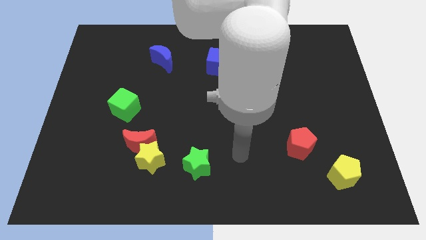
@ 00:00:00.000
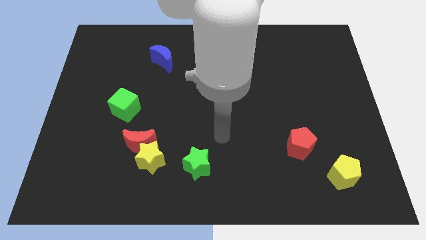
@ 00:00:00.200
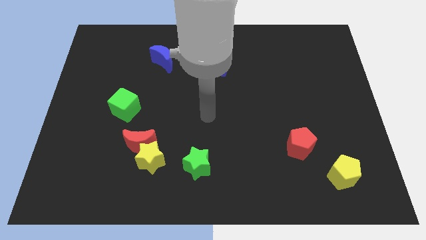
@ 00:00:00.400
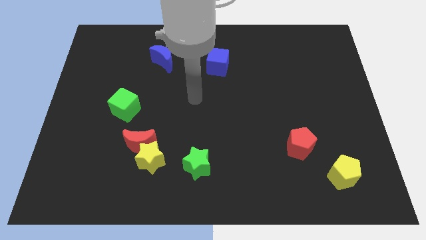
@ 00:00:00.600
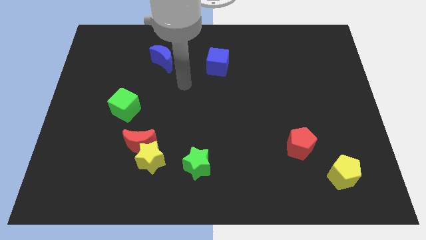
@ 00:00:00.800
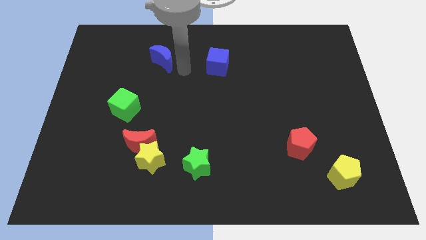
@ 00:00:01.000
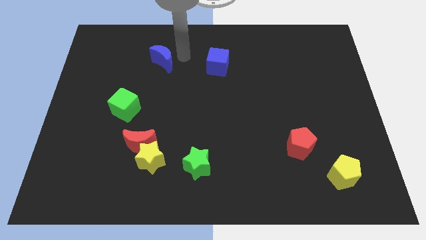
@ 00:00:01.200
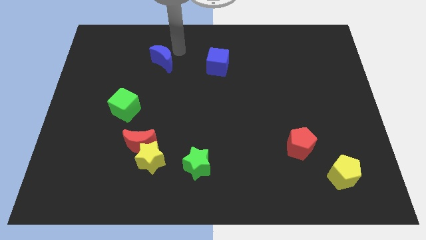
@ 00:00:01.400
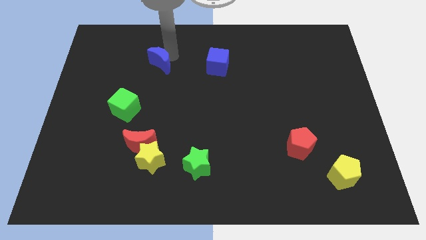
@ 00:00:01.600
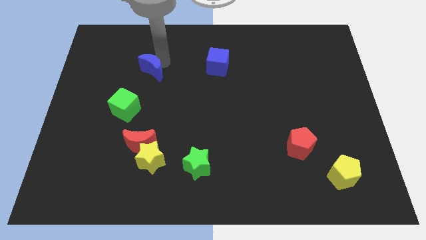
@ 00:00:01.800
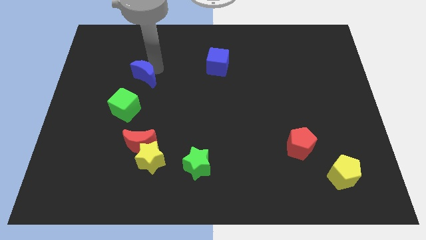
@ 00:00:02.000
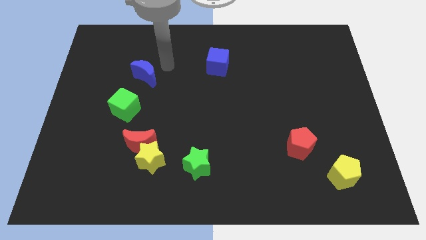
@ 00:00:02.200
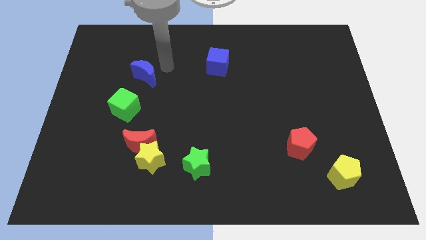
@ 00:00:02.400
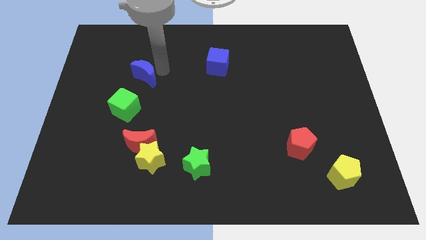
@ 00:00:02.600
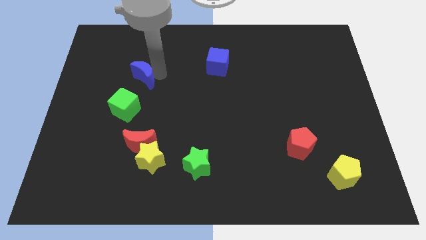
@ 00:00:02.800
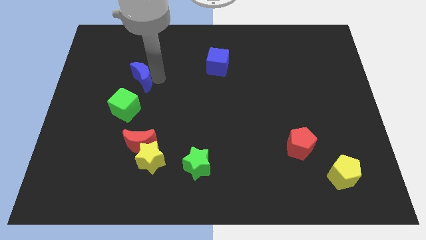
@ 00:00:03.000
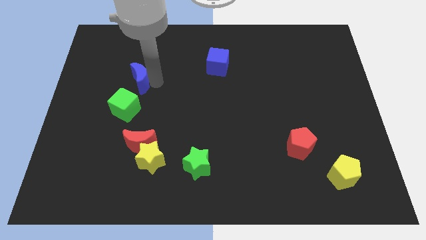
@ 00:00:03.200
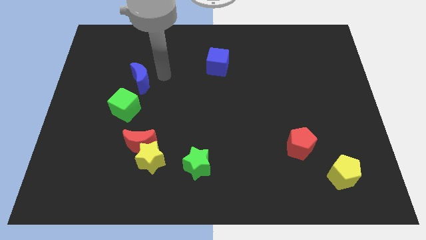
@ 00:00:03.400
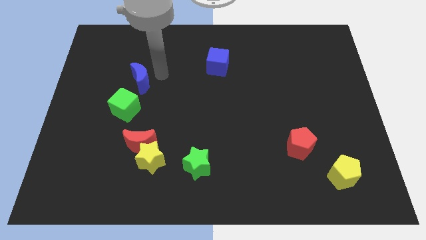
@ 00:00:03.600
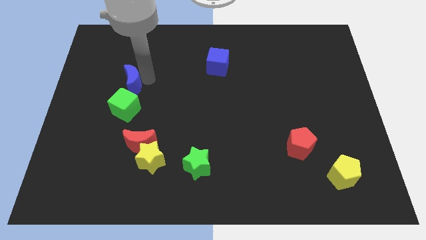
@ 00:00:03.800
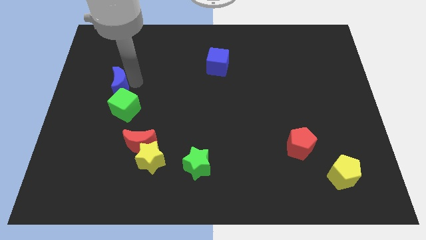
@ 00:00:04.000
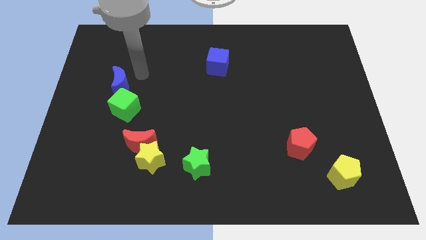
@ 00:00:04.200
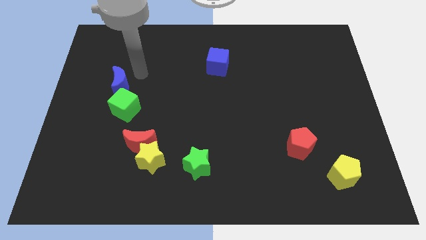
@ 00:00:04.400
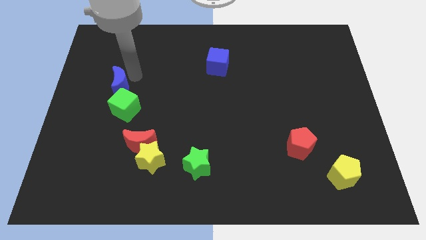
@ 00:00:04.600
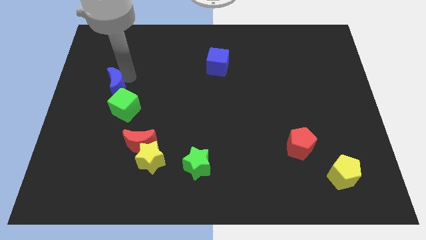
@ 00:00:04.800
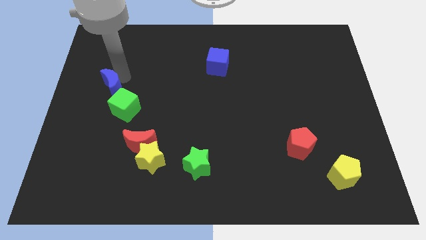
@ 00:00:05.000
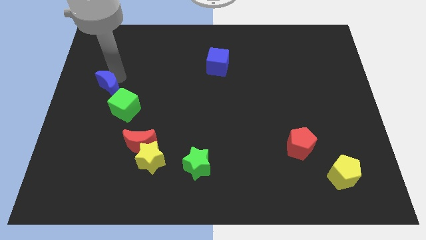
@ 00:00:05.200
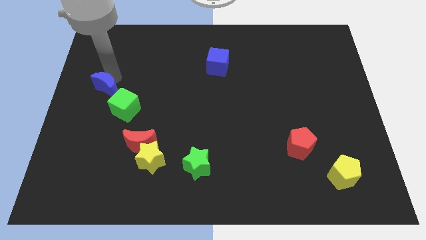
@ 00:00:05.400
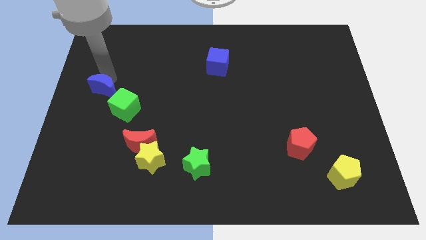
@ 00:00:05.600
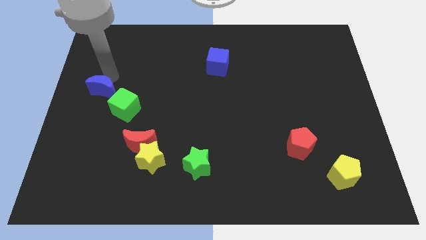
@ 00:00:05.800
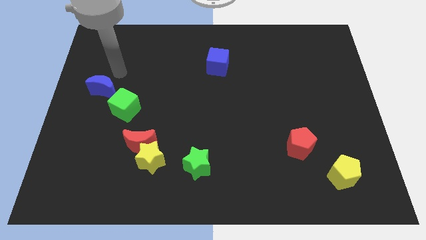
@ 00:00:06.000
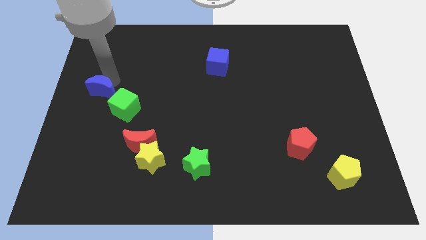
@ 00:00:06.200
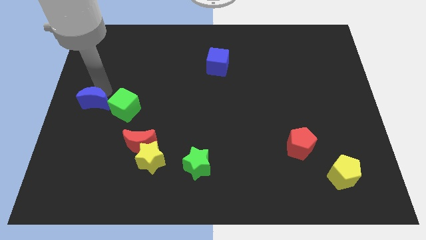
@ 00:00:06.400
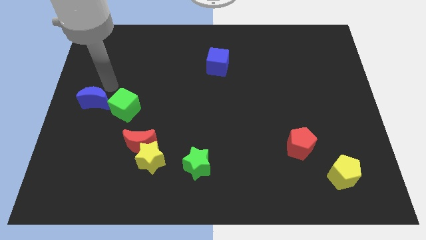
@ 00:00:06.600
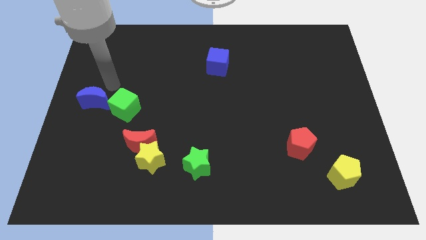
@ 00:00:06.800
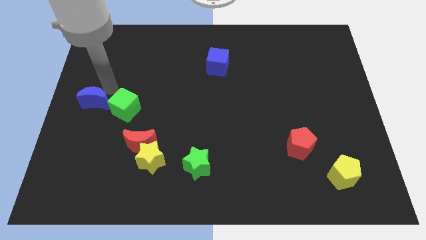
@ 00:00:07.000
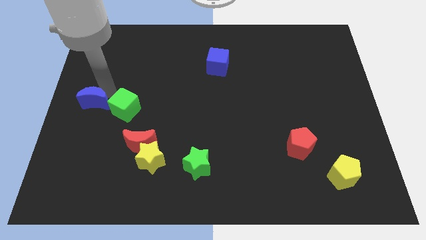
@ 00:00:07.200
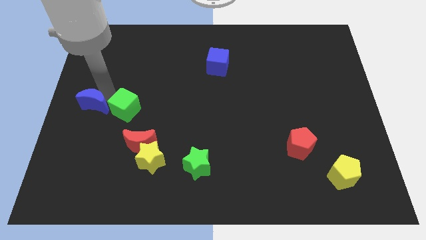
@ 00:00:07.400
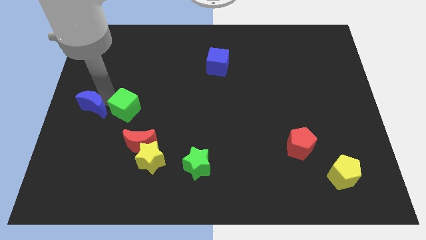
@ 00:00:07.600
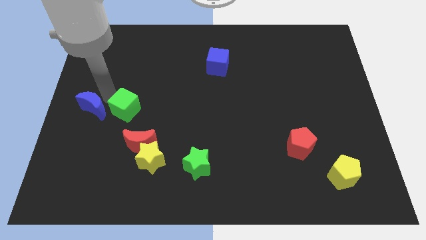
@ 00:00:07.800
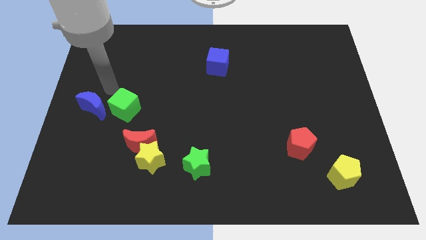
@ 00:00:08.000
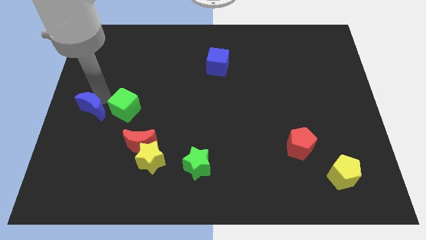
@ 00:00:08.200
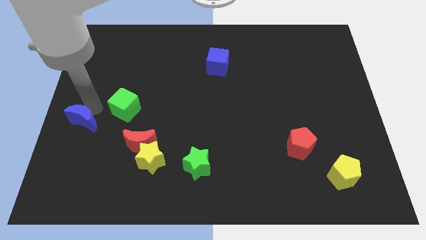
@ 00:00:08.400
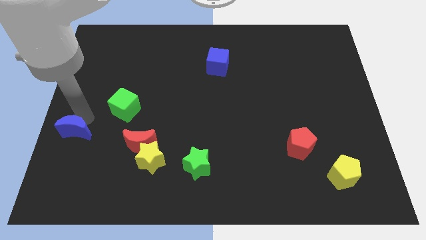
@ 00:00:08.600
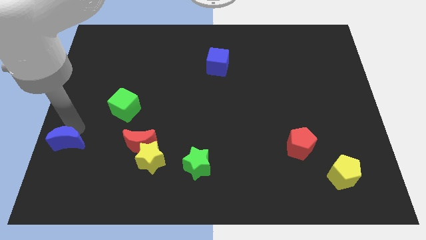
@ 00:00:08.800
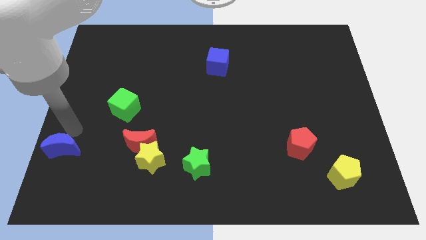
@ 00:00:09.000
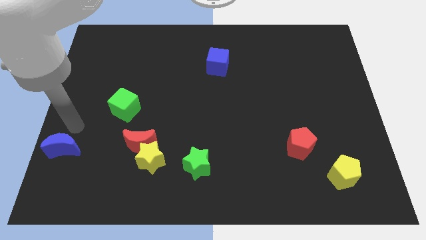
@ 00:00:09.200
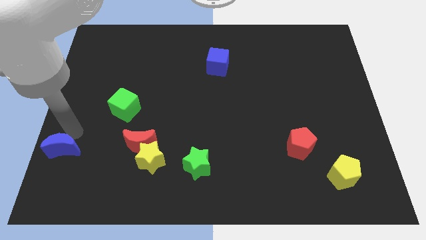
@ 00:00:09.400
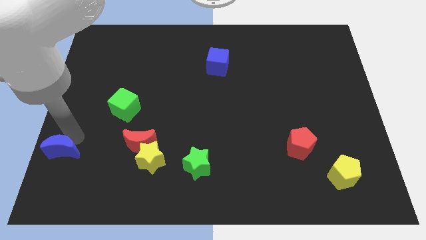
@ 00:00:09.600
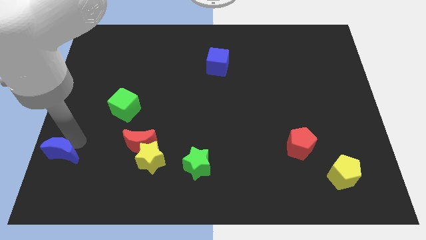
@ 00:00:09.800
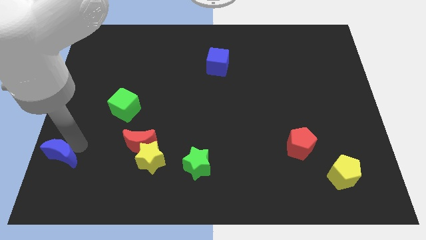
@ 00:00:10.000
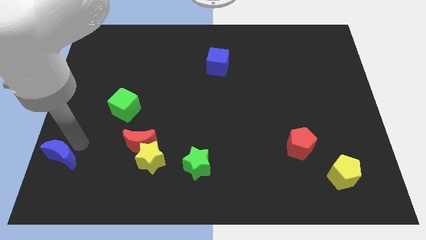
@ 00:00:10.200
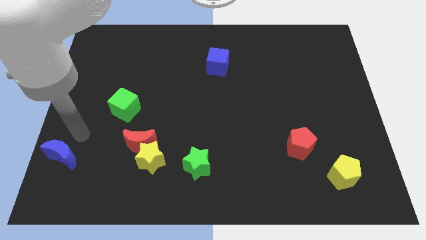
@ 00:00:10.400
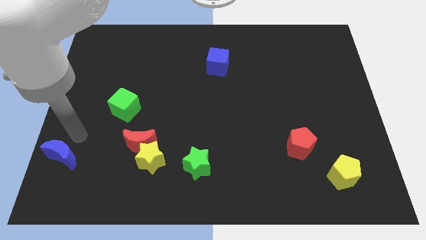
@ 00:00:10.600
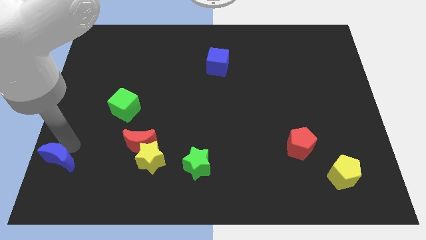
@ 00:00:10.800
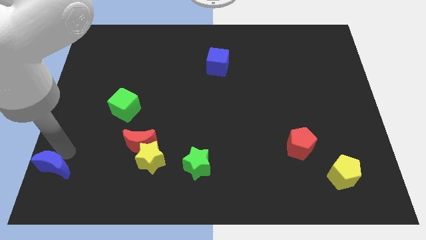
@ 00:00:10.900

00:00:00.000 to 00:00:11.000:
move the blue moon to the bottom left
